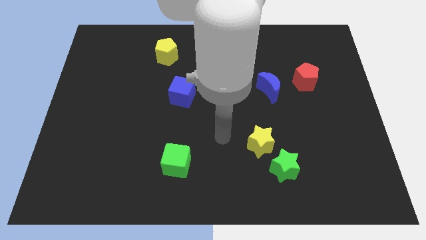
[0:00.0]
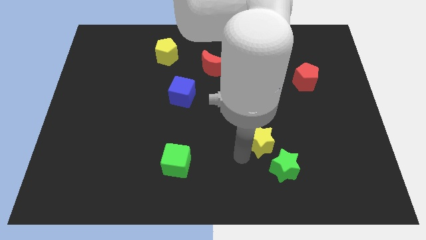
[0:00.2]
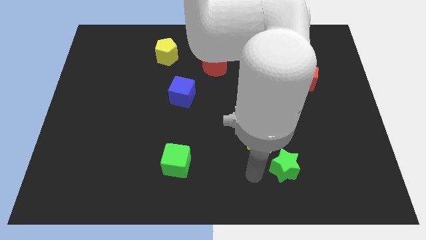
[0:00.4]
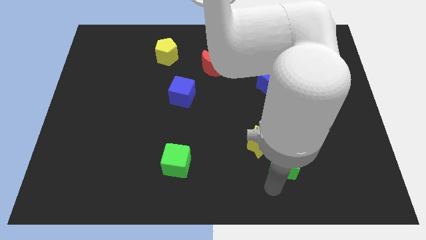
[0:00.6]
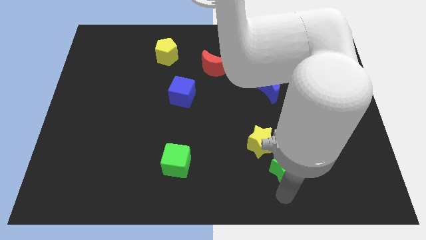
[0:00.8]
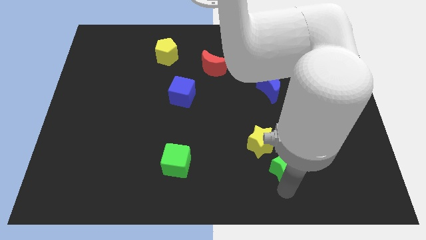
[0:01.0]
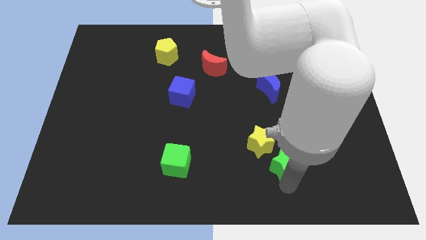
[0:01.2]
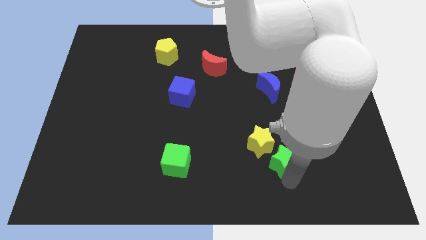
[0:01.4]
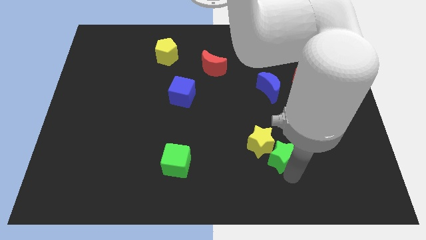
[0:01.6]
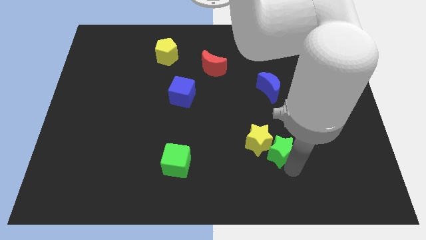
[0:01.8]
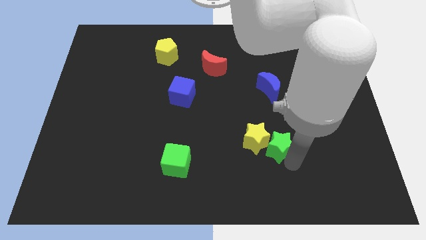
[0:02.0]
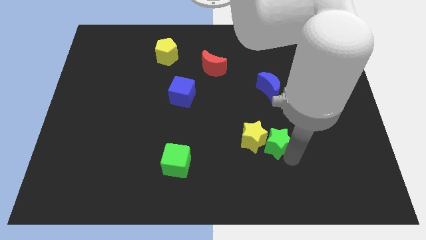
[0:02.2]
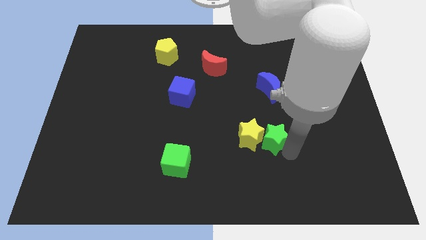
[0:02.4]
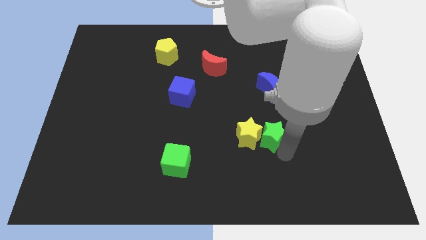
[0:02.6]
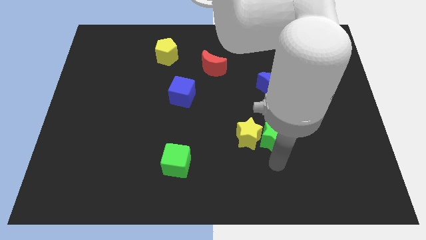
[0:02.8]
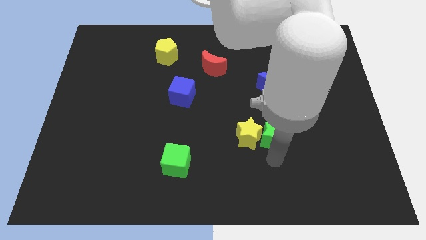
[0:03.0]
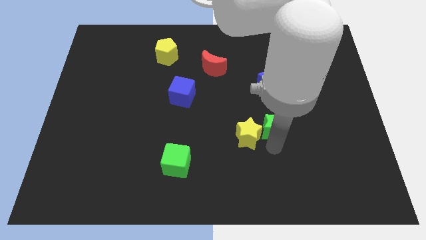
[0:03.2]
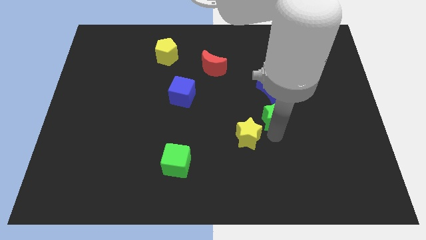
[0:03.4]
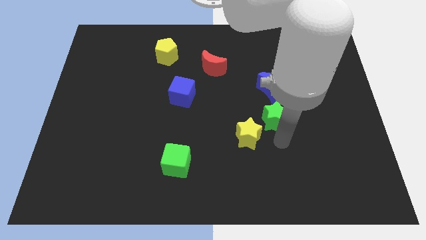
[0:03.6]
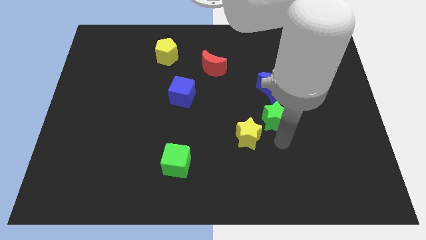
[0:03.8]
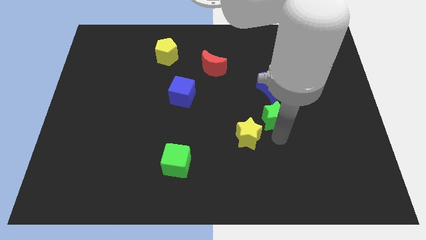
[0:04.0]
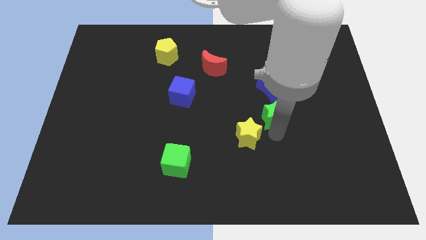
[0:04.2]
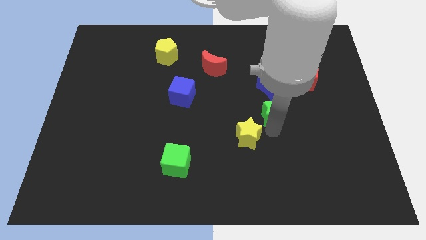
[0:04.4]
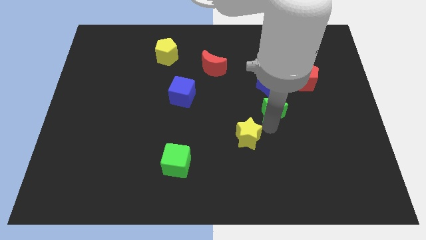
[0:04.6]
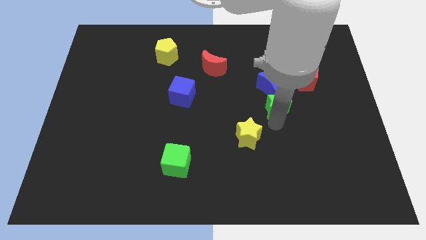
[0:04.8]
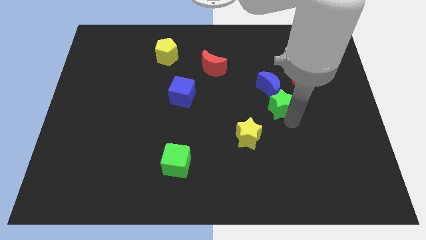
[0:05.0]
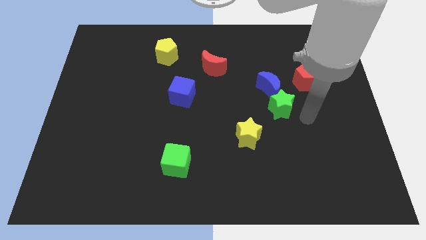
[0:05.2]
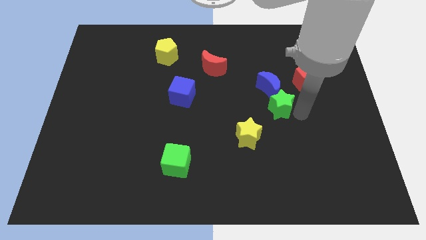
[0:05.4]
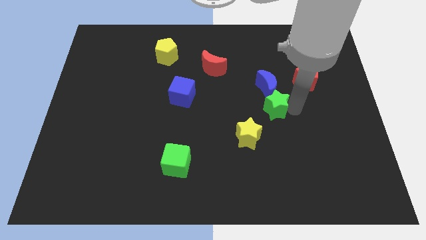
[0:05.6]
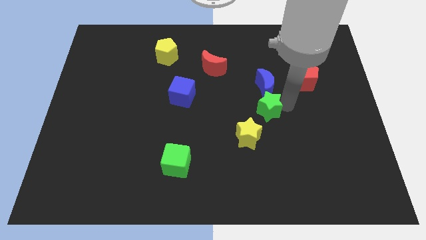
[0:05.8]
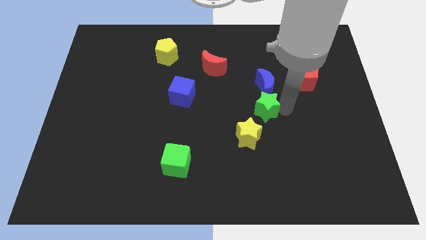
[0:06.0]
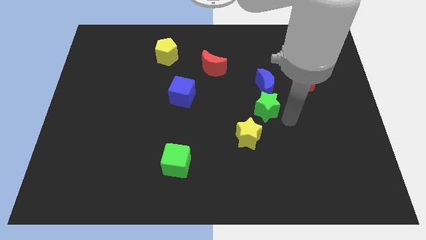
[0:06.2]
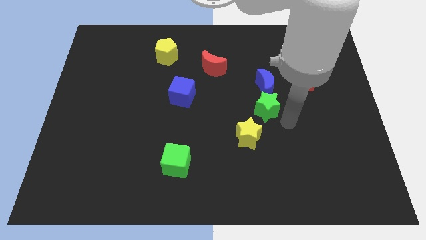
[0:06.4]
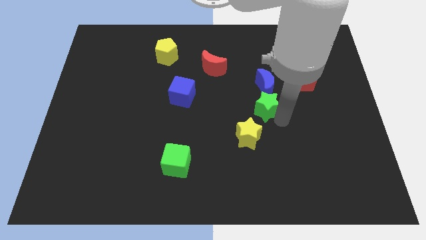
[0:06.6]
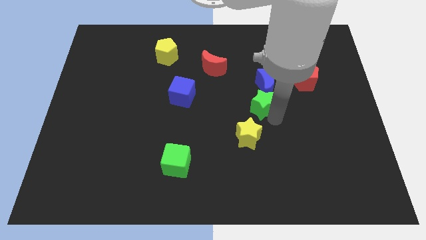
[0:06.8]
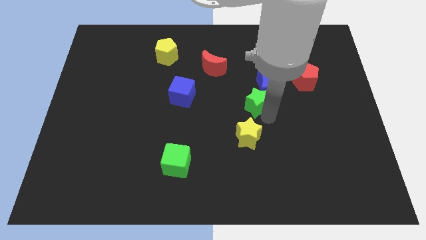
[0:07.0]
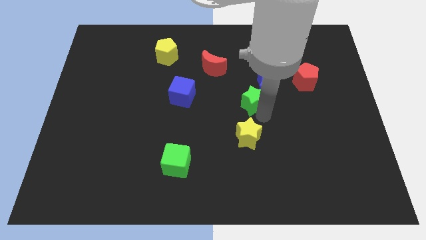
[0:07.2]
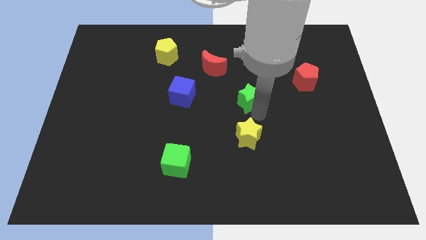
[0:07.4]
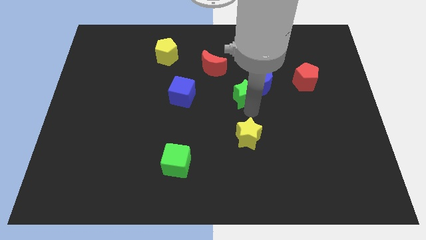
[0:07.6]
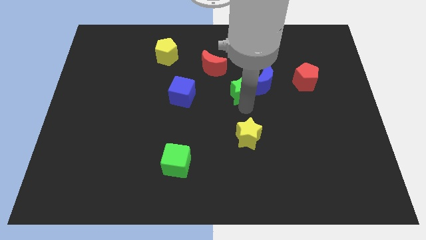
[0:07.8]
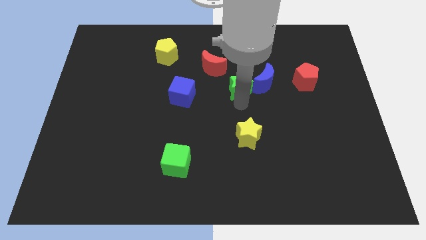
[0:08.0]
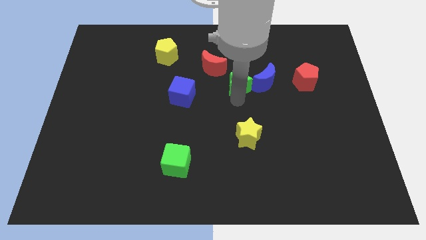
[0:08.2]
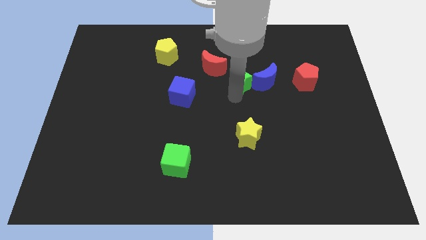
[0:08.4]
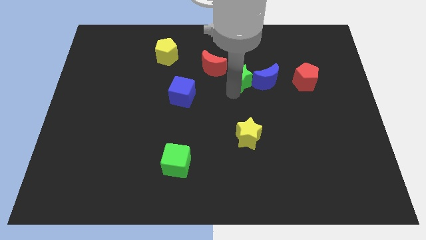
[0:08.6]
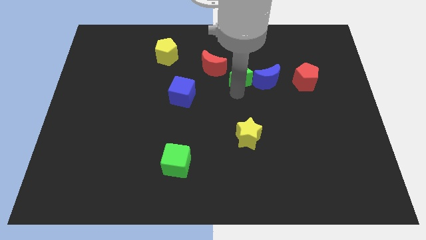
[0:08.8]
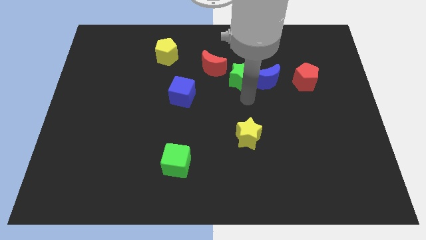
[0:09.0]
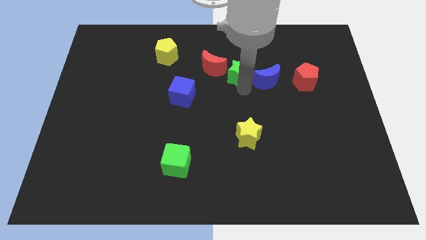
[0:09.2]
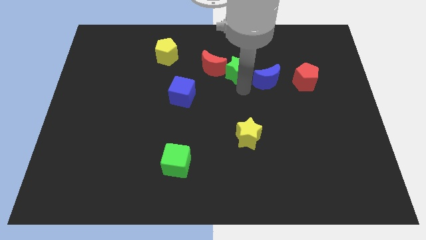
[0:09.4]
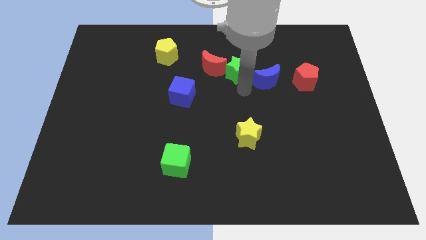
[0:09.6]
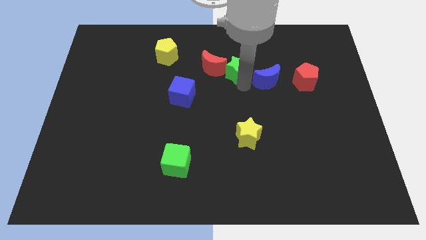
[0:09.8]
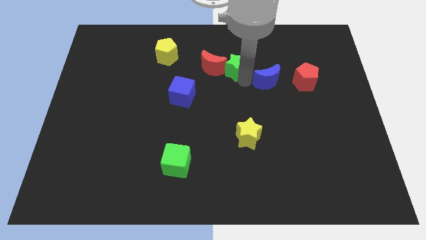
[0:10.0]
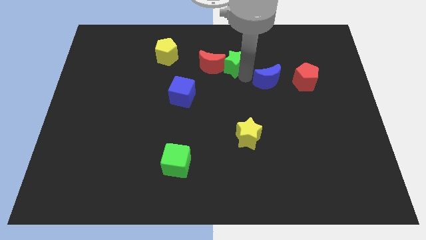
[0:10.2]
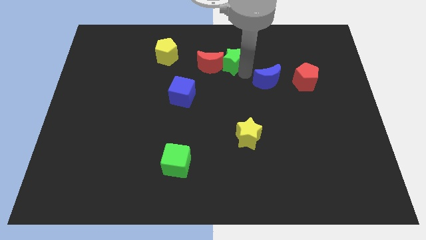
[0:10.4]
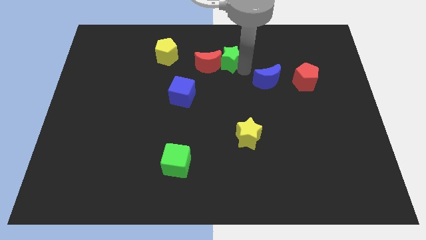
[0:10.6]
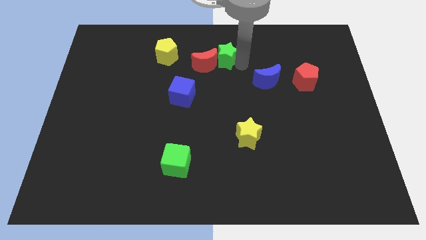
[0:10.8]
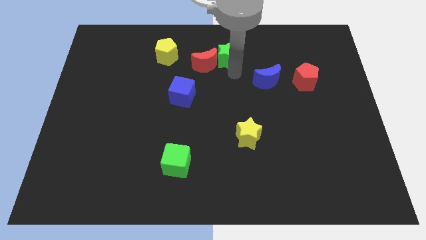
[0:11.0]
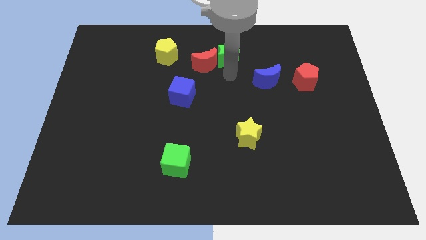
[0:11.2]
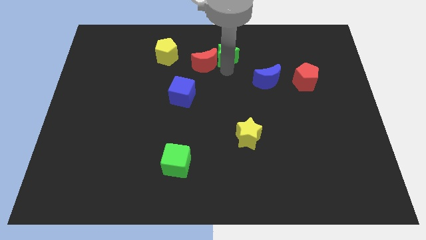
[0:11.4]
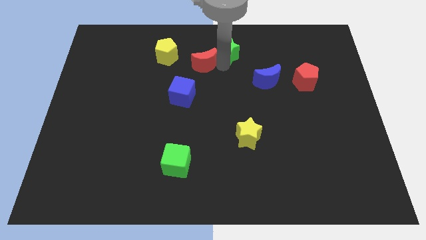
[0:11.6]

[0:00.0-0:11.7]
move the green star to the top side

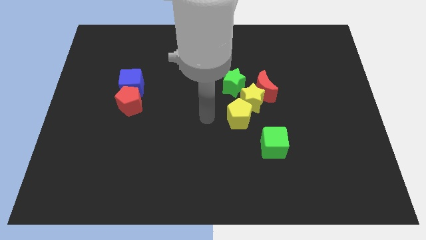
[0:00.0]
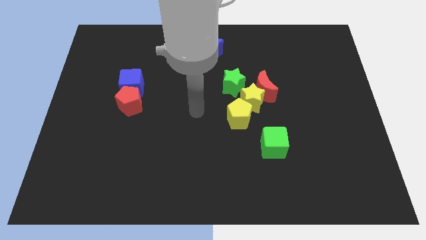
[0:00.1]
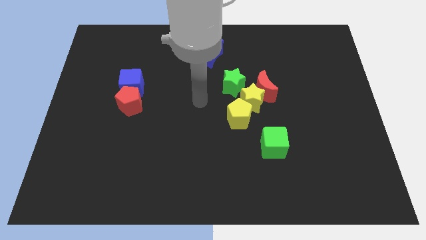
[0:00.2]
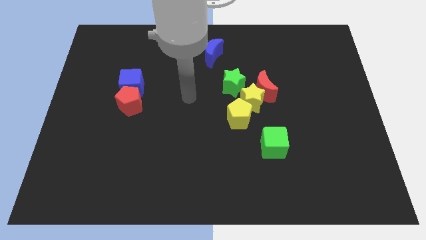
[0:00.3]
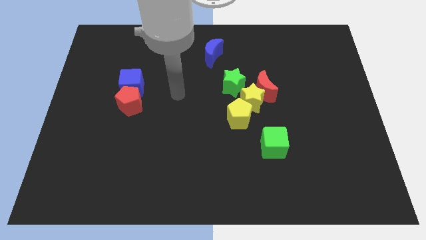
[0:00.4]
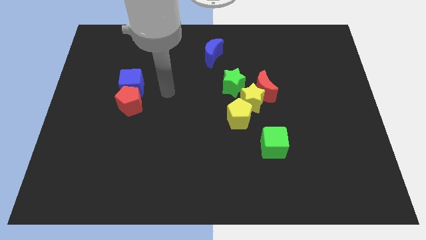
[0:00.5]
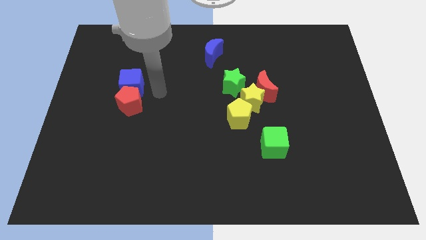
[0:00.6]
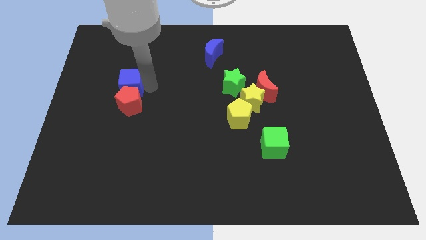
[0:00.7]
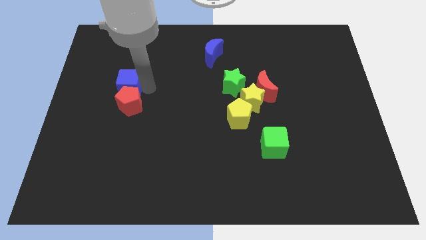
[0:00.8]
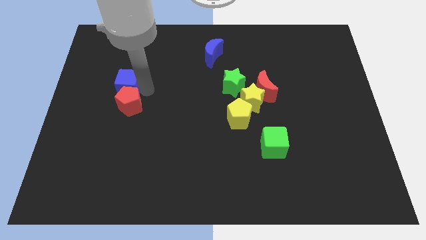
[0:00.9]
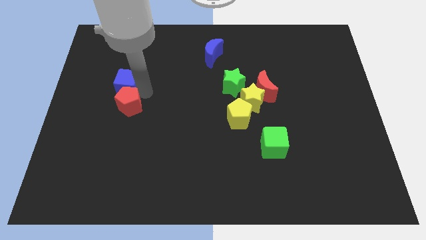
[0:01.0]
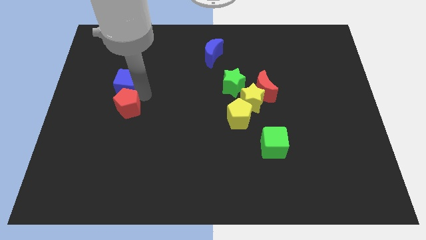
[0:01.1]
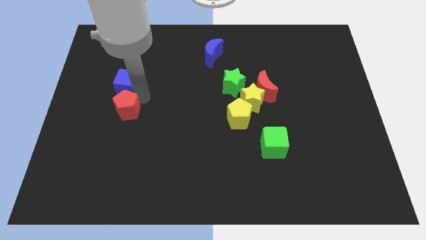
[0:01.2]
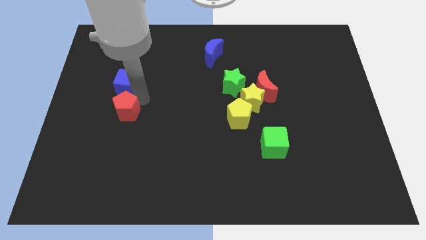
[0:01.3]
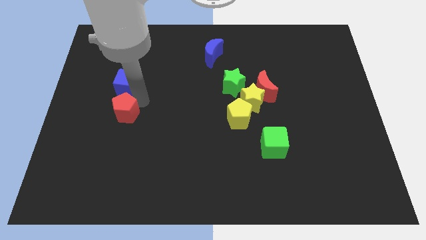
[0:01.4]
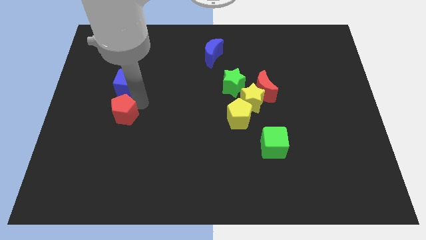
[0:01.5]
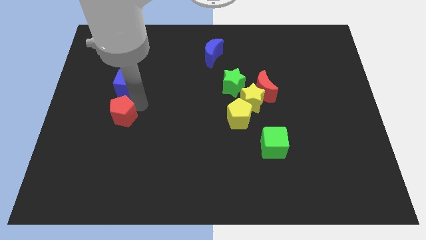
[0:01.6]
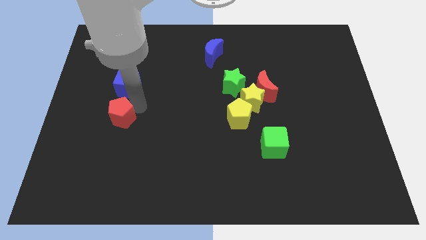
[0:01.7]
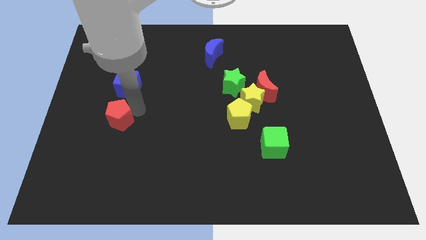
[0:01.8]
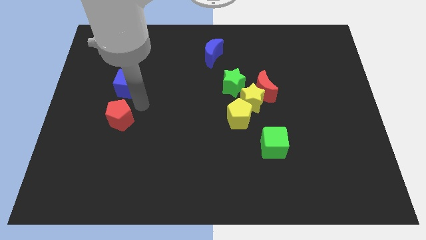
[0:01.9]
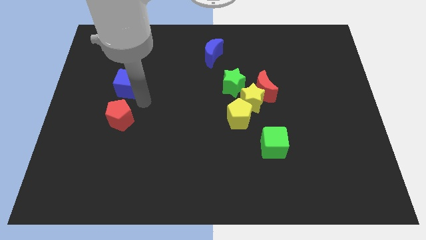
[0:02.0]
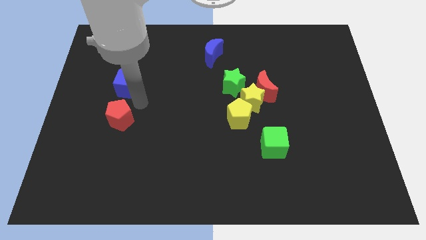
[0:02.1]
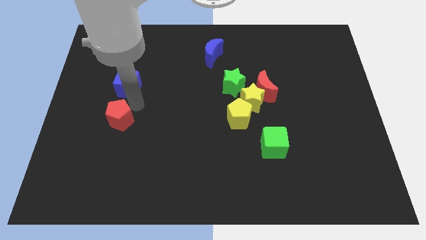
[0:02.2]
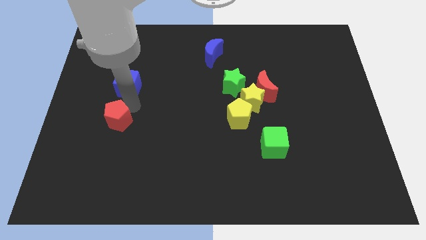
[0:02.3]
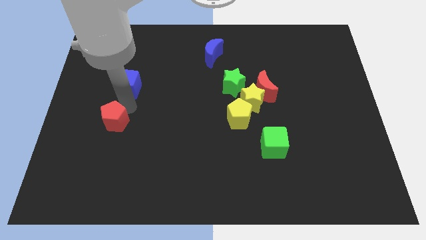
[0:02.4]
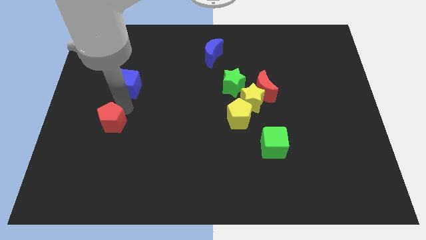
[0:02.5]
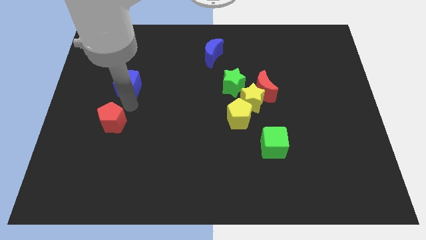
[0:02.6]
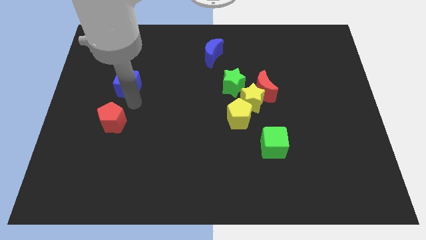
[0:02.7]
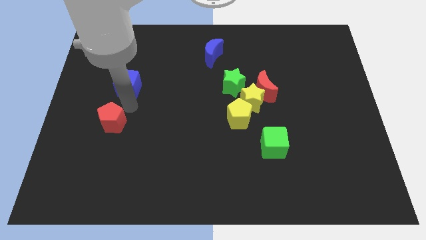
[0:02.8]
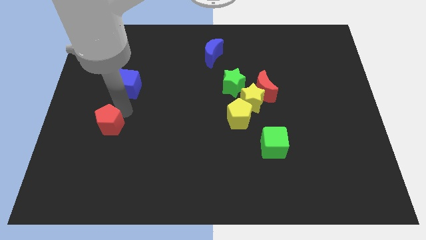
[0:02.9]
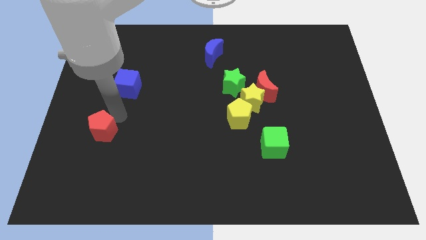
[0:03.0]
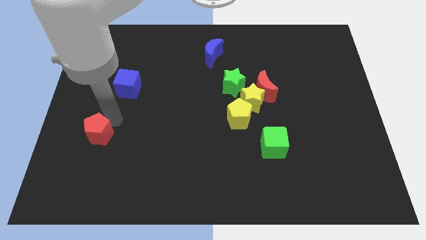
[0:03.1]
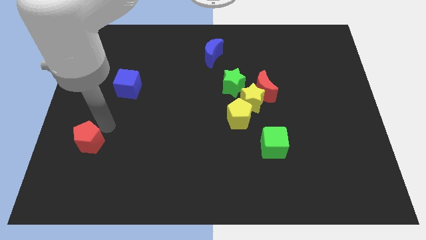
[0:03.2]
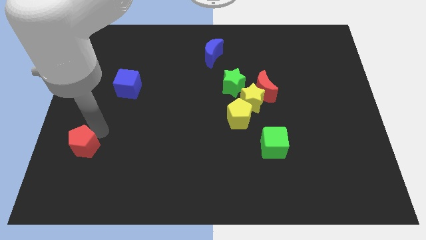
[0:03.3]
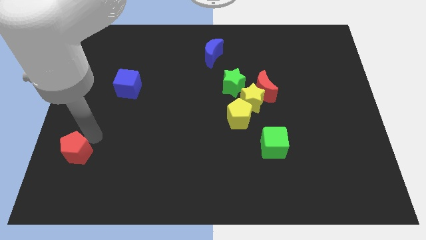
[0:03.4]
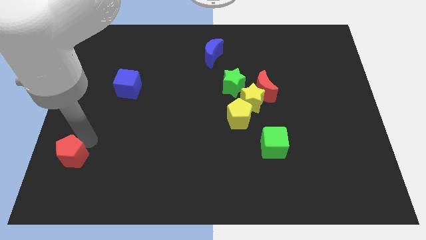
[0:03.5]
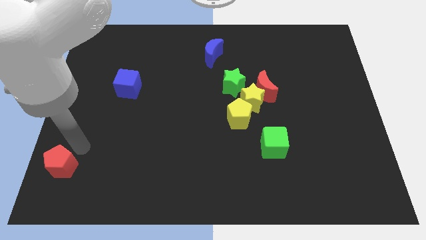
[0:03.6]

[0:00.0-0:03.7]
put the red pentagon to the lower left corner
